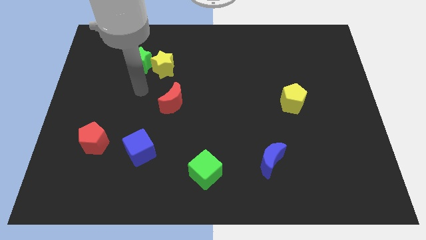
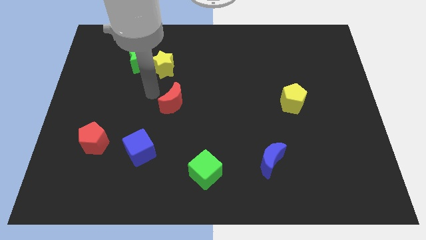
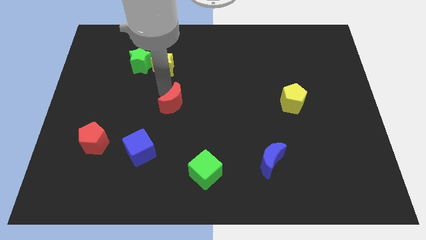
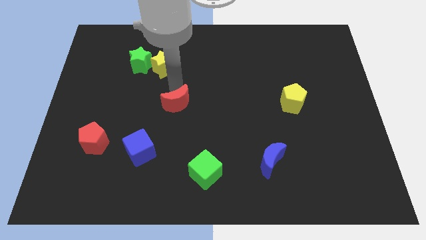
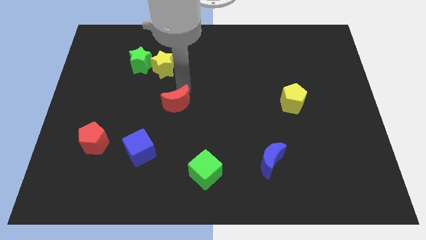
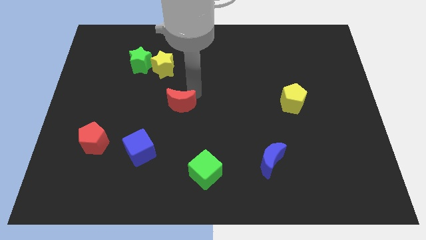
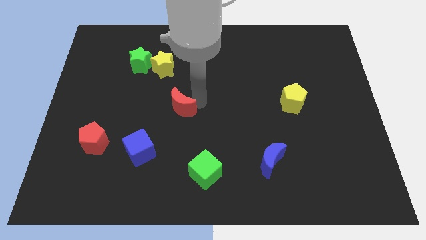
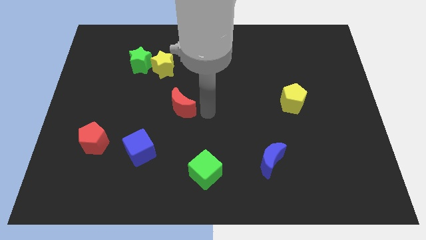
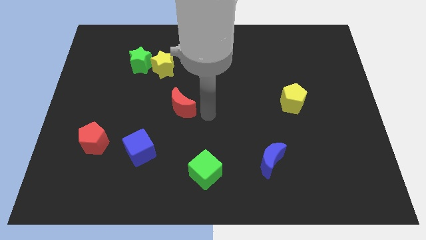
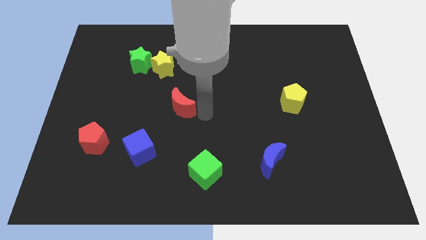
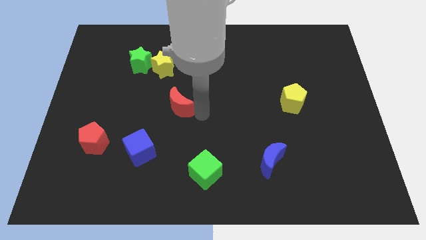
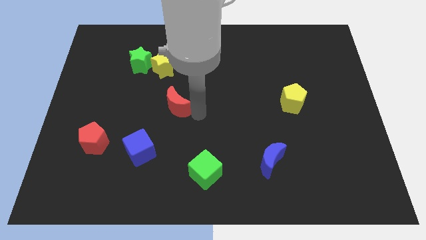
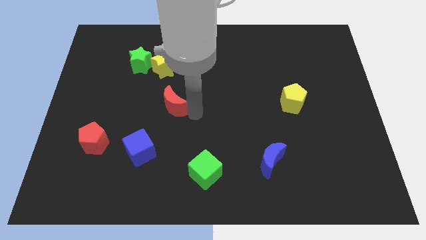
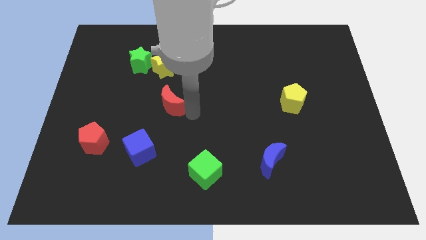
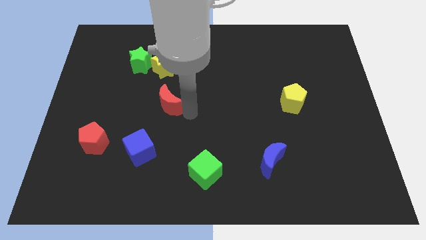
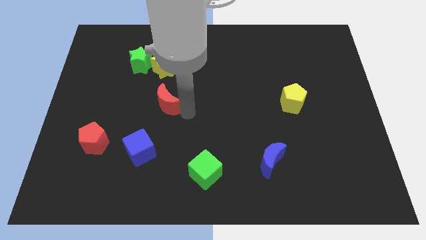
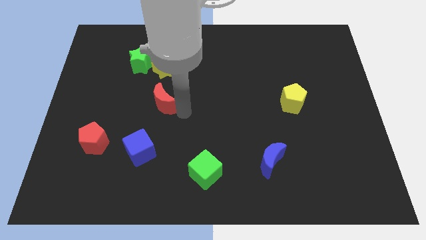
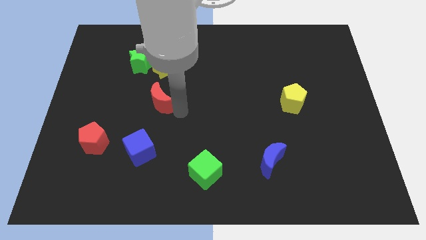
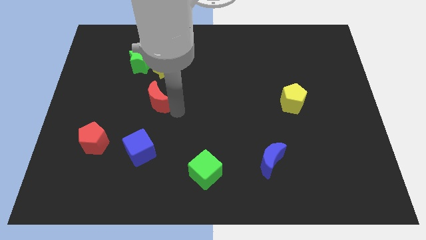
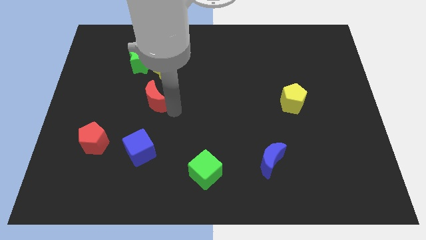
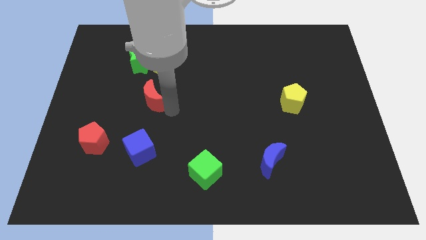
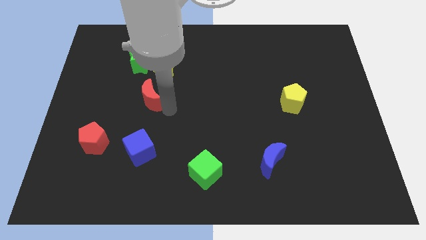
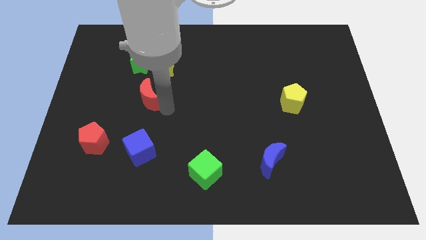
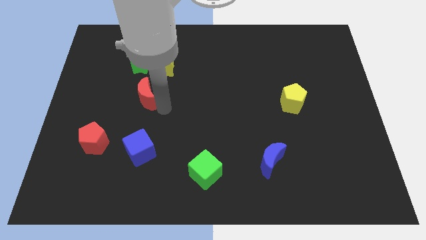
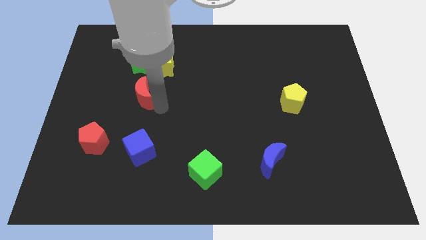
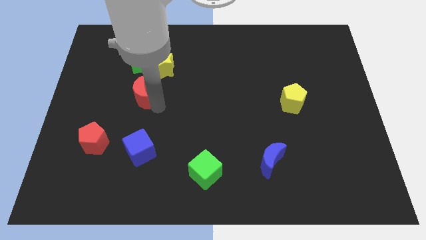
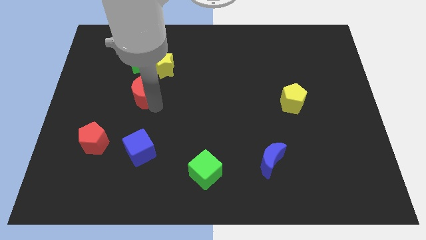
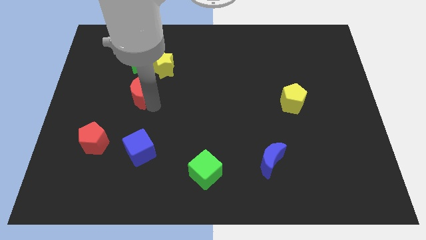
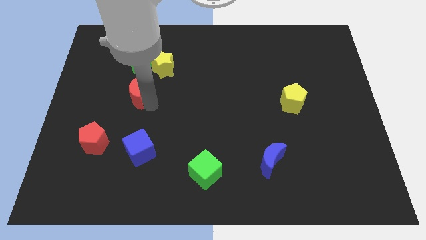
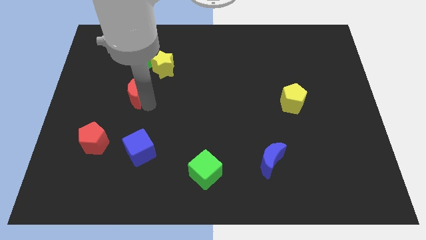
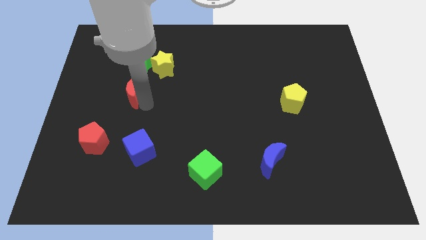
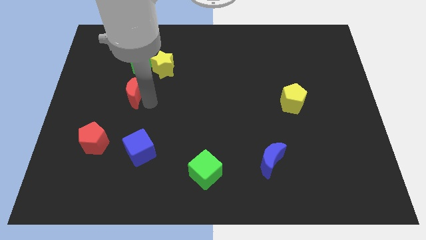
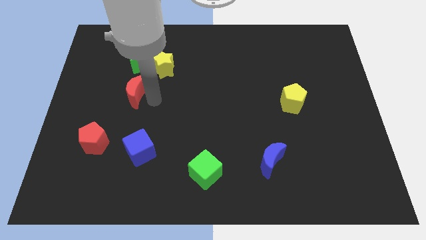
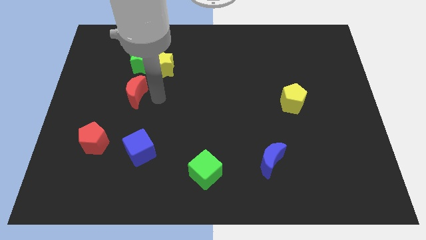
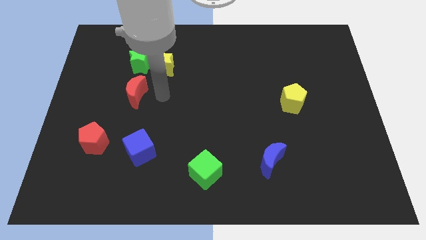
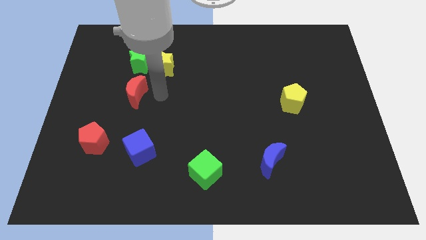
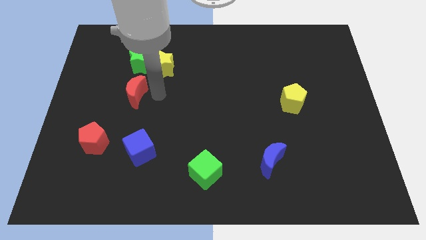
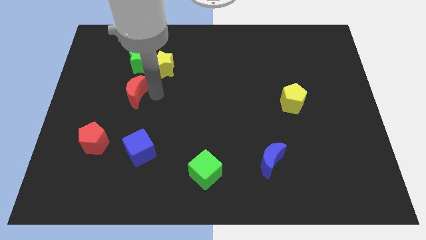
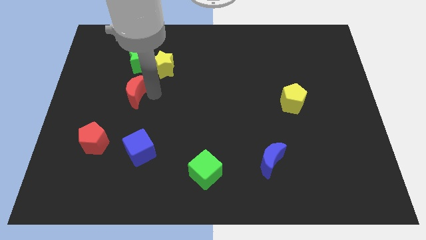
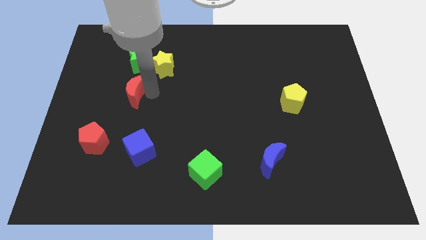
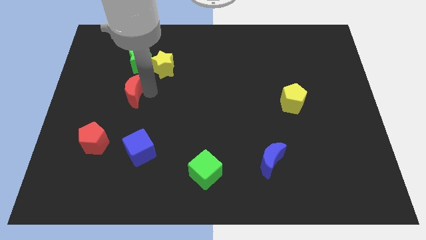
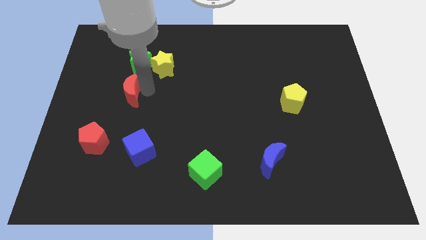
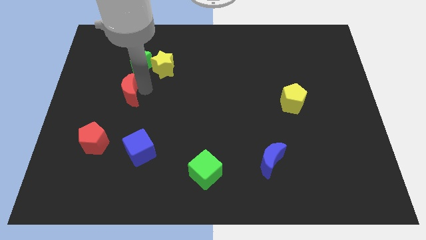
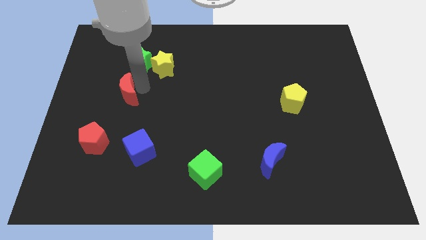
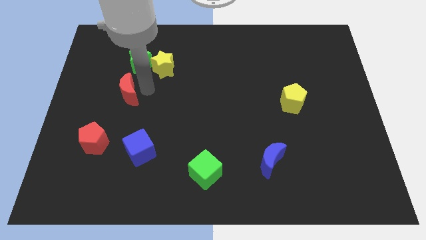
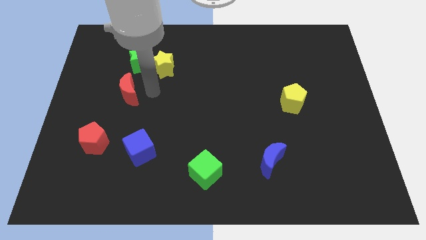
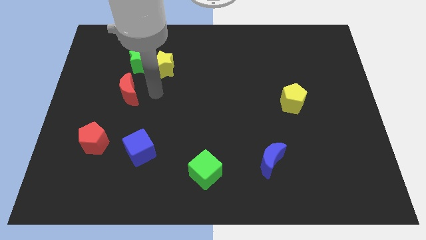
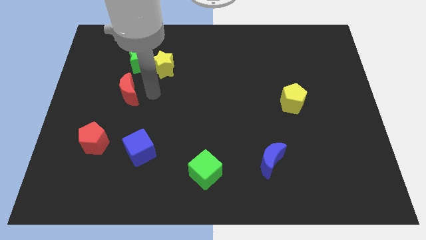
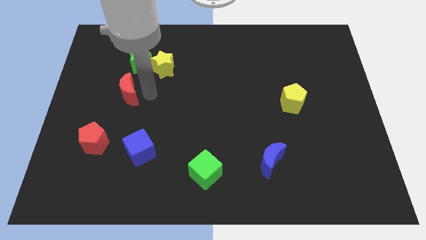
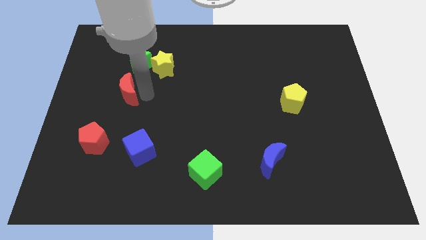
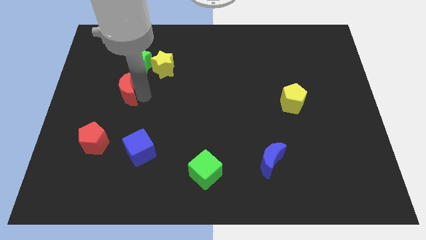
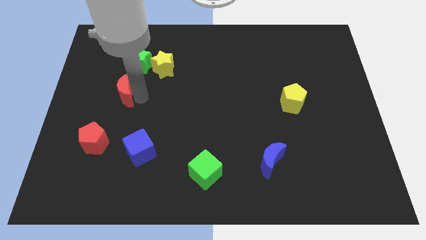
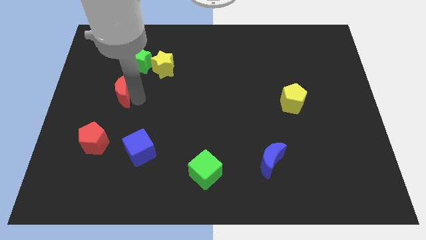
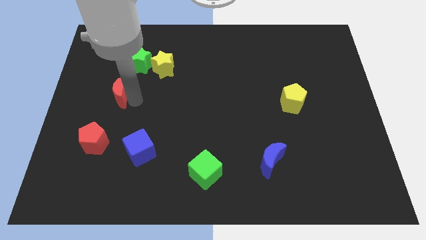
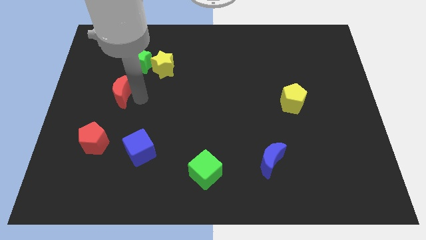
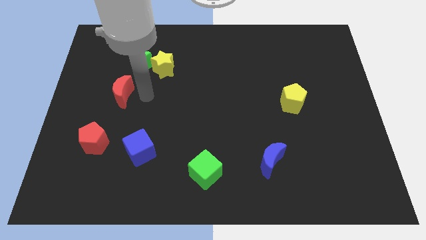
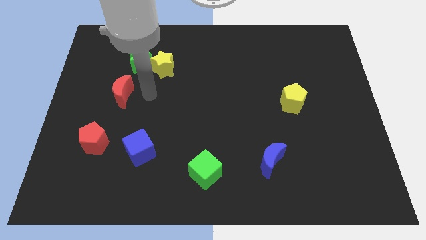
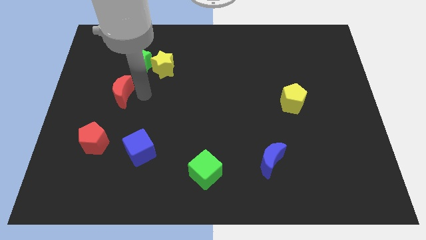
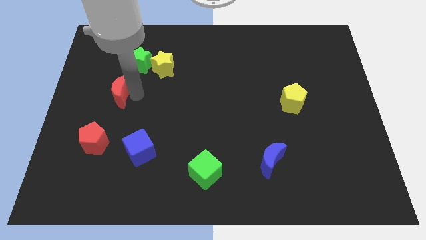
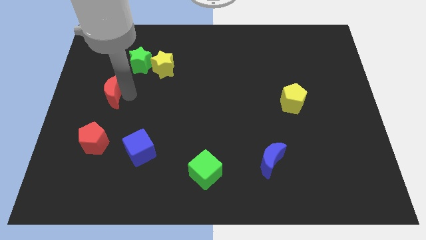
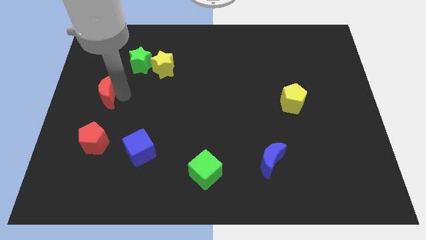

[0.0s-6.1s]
move the red moon to the left side
